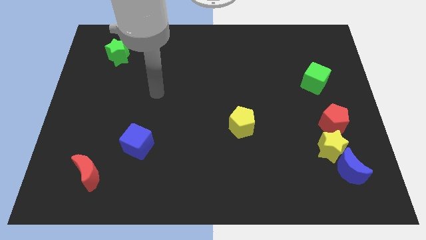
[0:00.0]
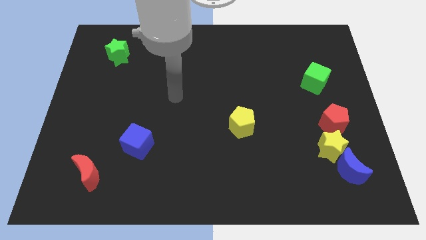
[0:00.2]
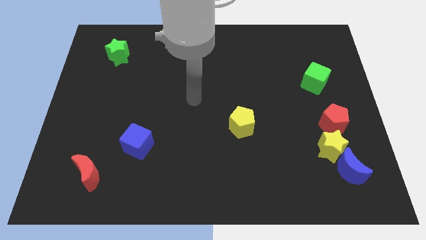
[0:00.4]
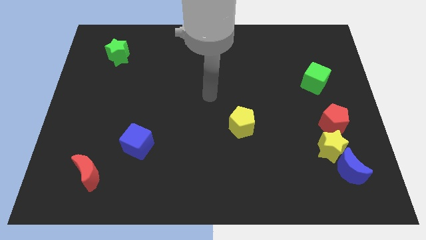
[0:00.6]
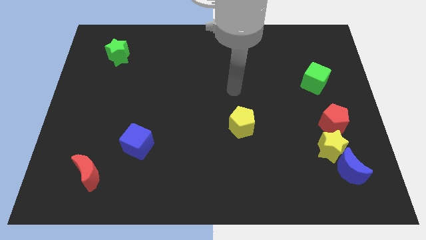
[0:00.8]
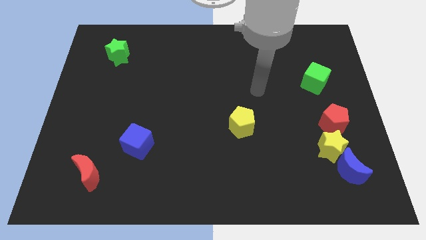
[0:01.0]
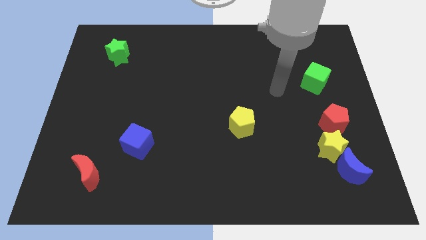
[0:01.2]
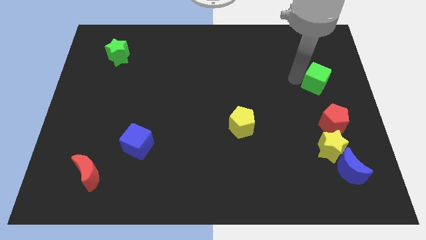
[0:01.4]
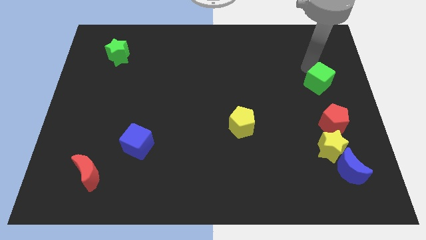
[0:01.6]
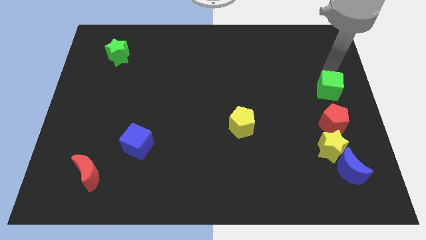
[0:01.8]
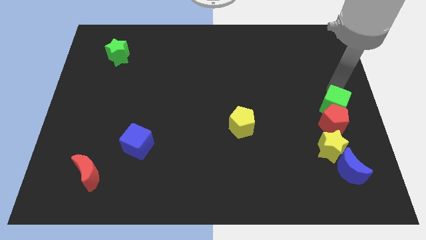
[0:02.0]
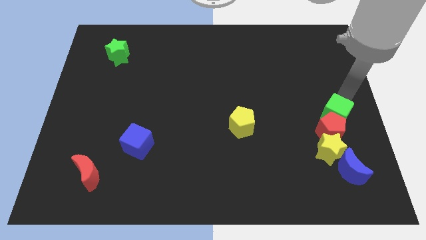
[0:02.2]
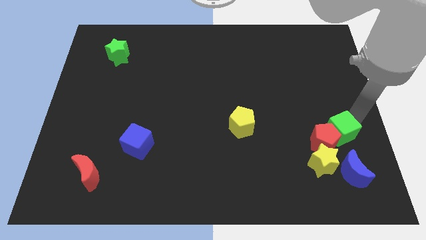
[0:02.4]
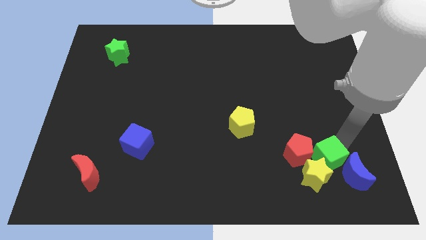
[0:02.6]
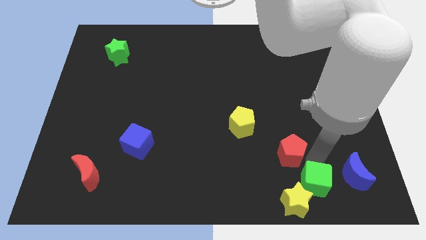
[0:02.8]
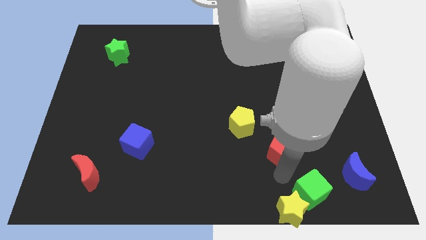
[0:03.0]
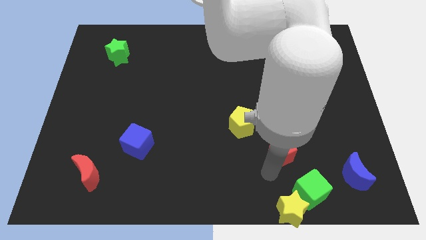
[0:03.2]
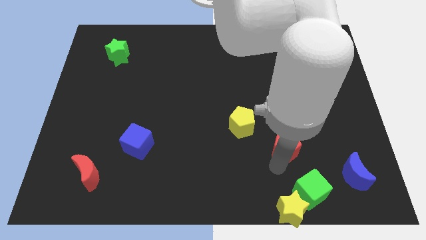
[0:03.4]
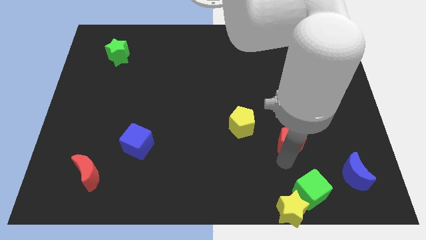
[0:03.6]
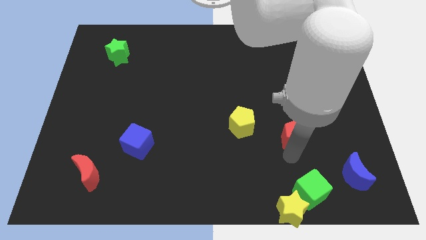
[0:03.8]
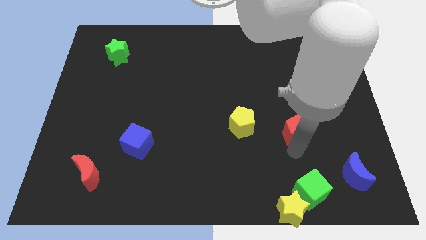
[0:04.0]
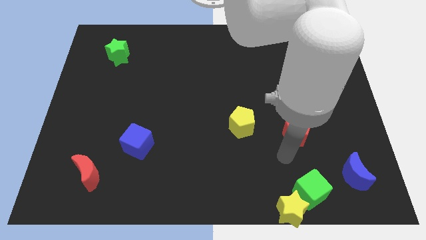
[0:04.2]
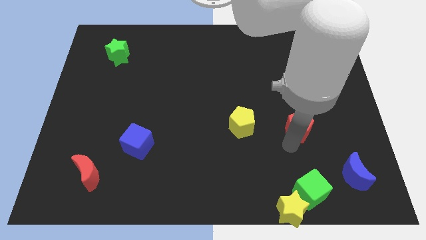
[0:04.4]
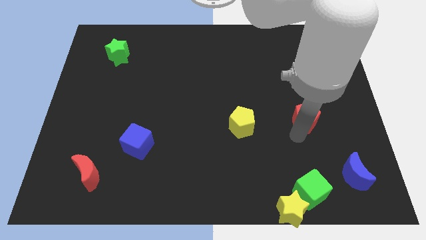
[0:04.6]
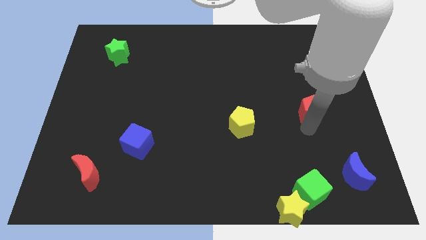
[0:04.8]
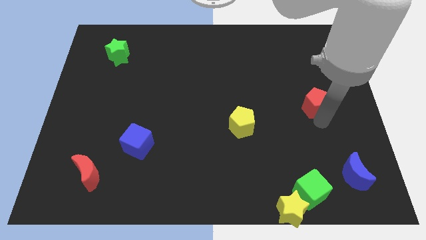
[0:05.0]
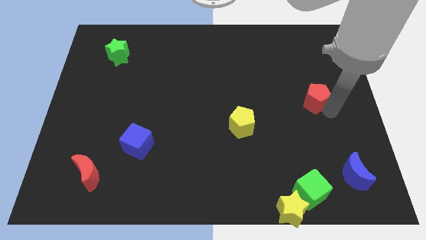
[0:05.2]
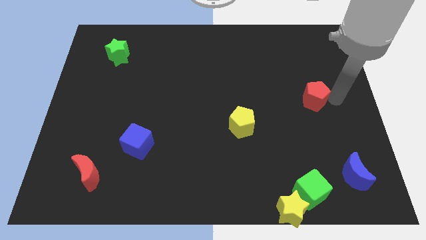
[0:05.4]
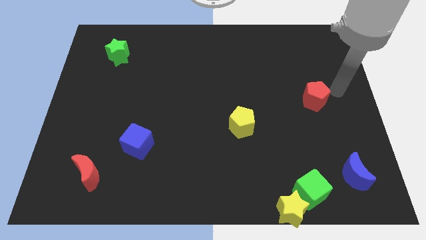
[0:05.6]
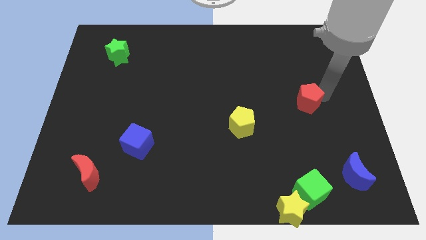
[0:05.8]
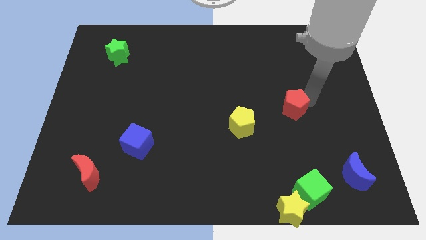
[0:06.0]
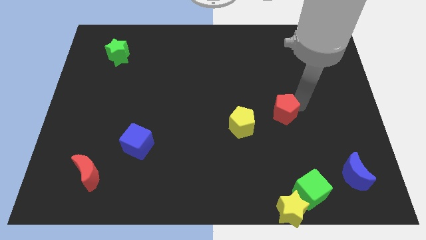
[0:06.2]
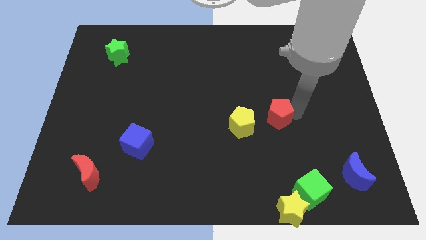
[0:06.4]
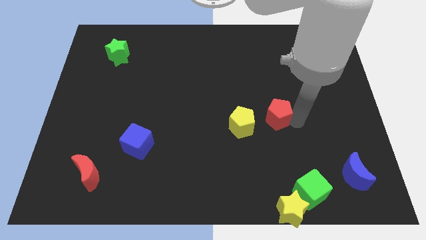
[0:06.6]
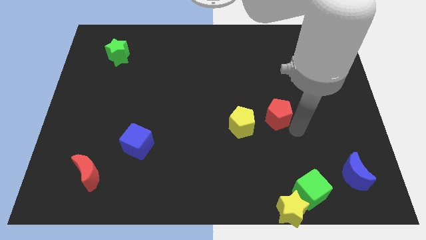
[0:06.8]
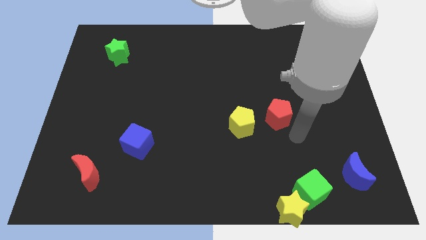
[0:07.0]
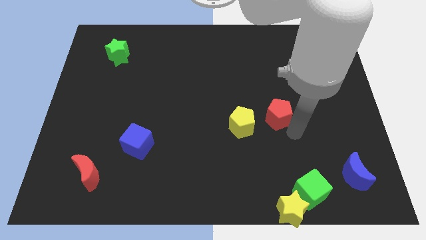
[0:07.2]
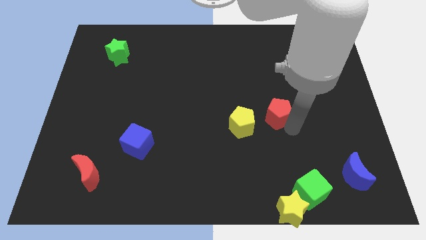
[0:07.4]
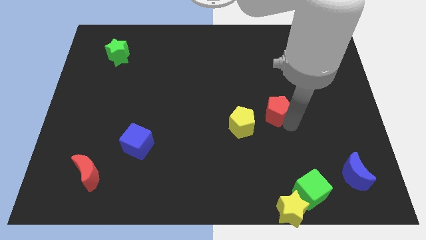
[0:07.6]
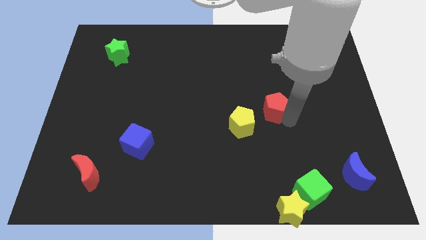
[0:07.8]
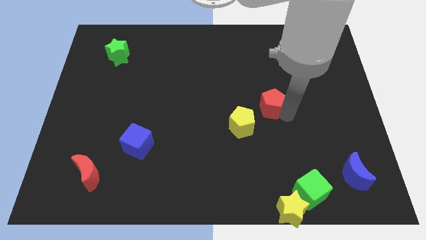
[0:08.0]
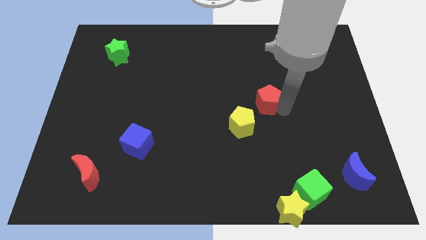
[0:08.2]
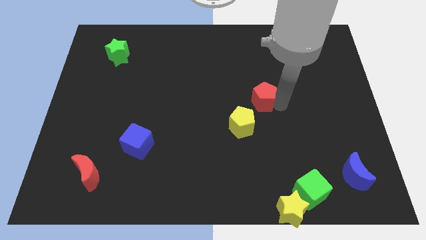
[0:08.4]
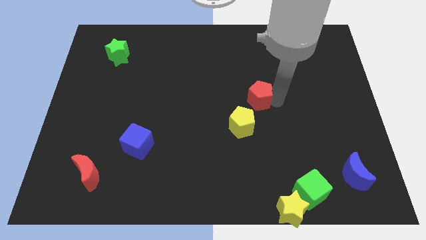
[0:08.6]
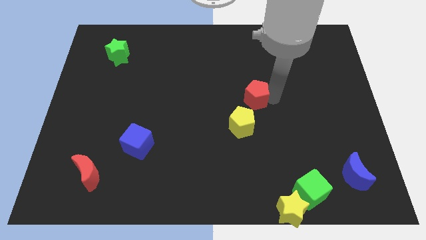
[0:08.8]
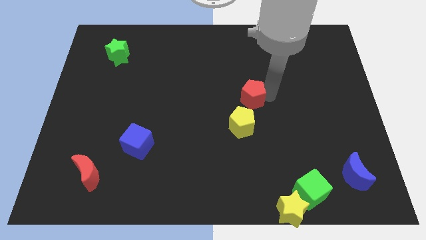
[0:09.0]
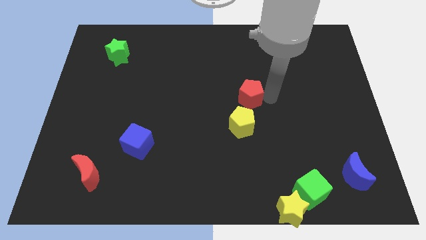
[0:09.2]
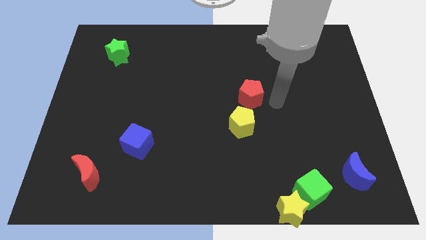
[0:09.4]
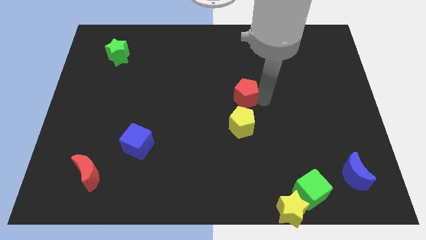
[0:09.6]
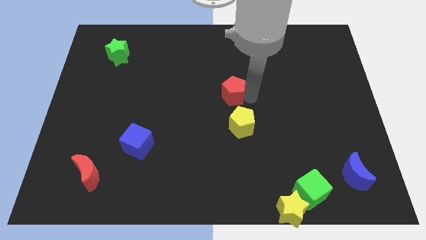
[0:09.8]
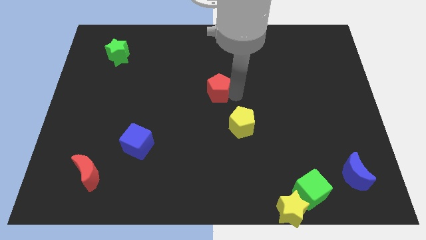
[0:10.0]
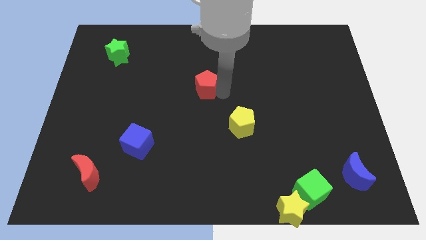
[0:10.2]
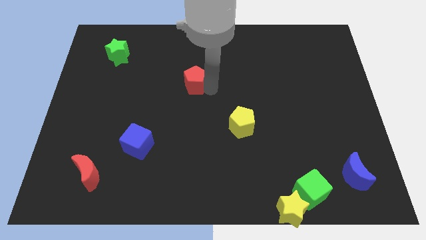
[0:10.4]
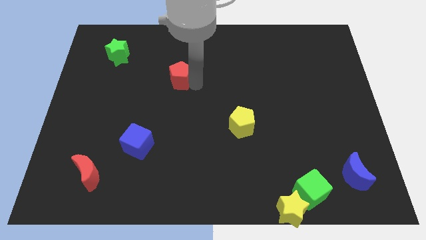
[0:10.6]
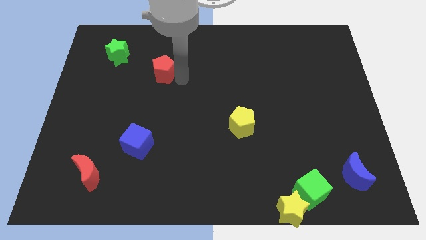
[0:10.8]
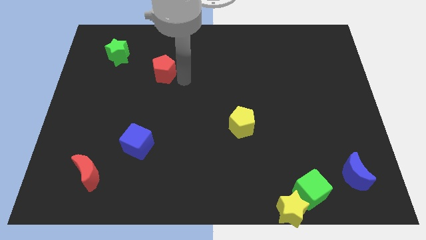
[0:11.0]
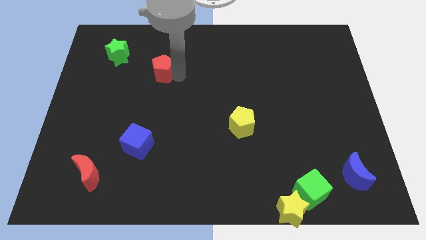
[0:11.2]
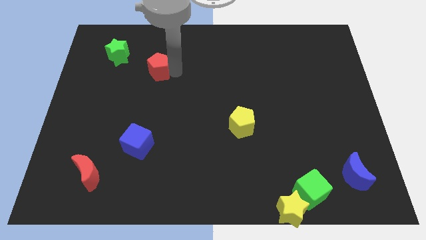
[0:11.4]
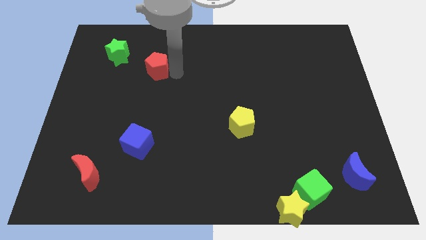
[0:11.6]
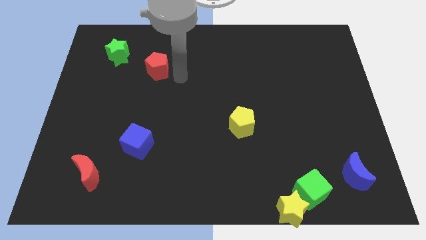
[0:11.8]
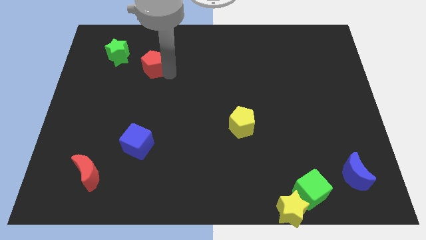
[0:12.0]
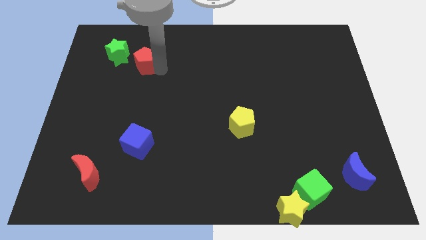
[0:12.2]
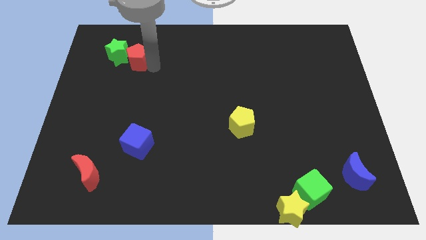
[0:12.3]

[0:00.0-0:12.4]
move the red pentagon towards the green star
